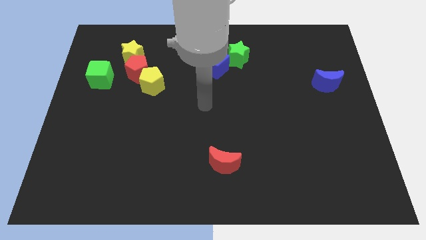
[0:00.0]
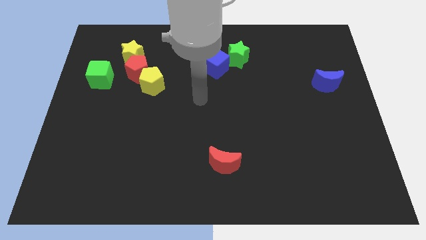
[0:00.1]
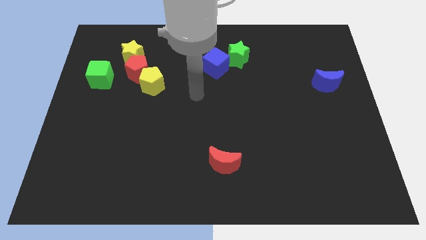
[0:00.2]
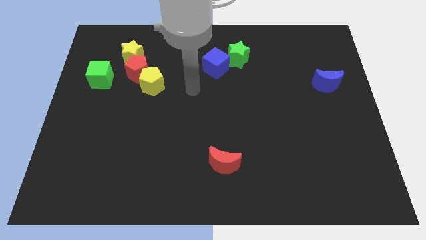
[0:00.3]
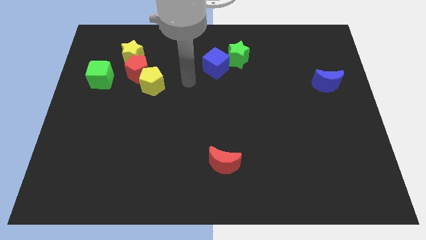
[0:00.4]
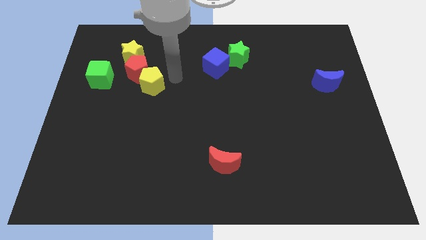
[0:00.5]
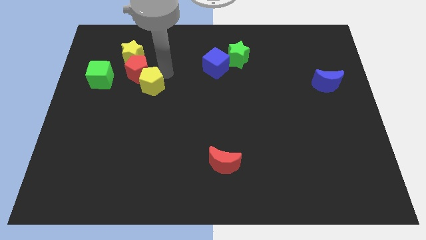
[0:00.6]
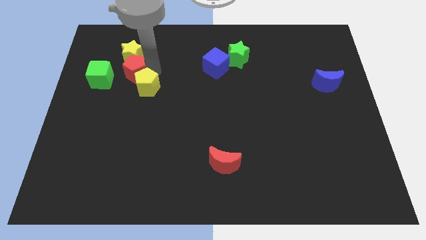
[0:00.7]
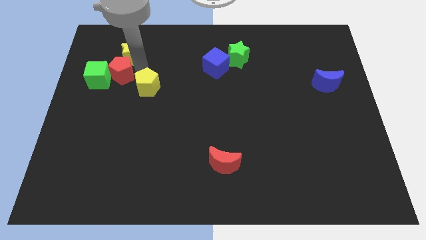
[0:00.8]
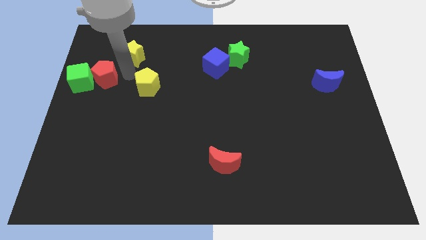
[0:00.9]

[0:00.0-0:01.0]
move the yellow pentagon away from the red pentagon

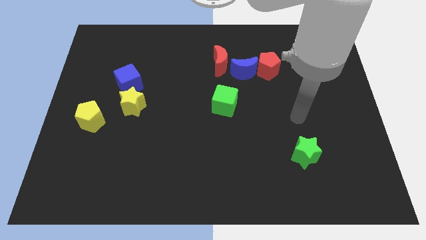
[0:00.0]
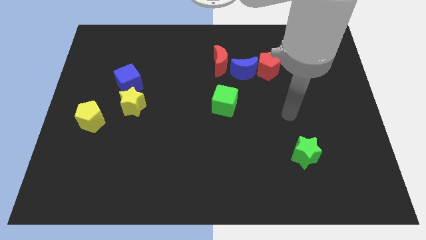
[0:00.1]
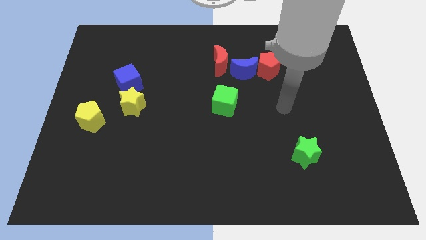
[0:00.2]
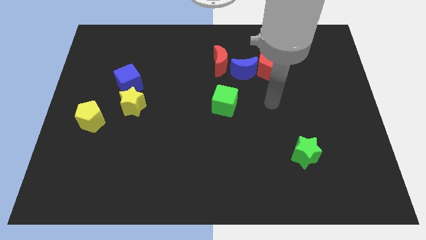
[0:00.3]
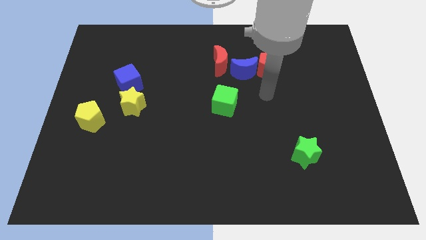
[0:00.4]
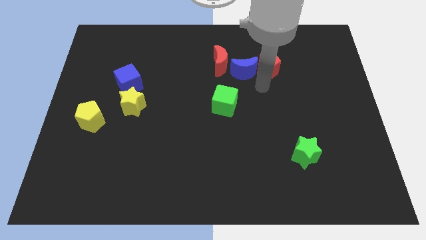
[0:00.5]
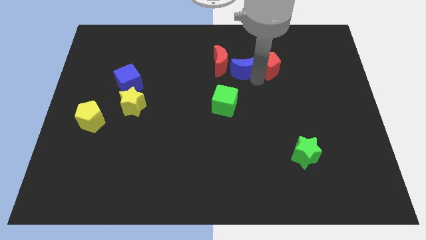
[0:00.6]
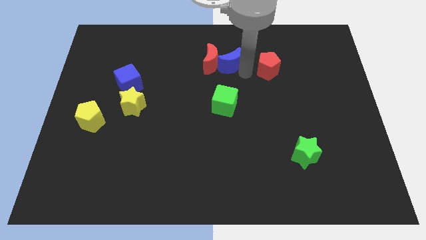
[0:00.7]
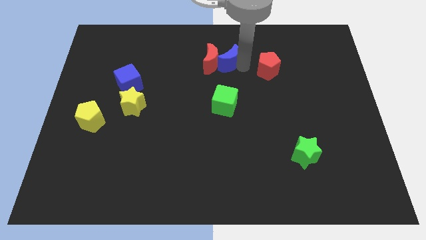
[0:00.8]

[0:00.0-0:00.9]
pull the red pentagon apart from the blue moon

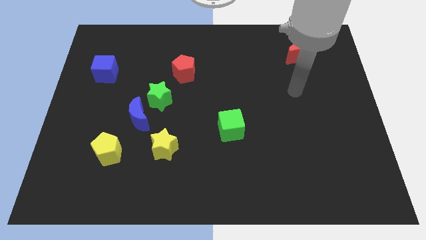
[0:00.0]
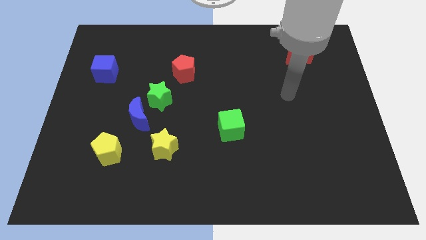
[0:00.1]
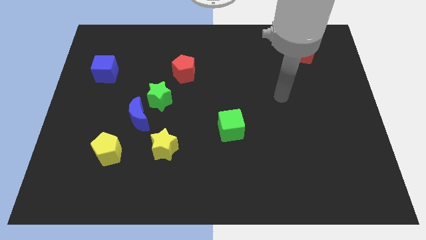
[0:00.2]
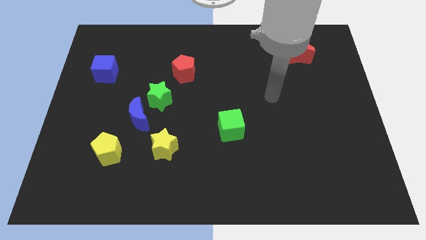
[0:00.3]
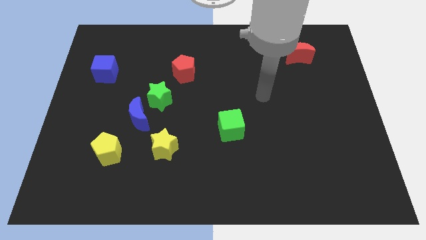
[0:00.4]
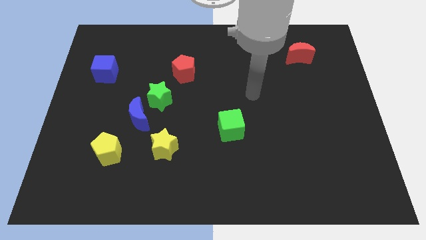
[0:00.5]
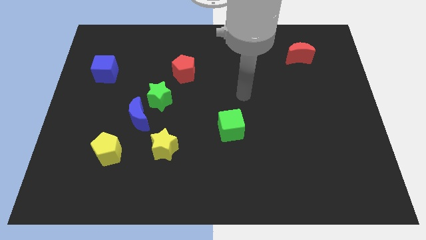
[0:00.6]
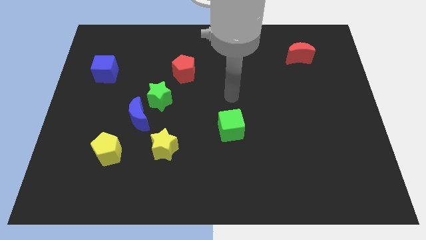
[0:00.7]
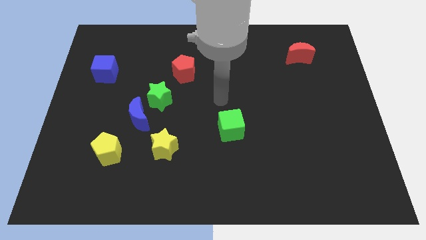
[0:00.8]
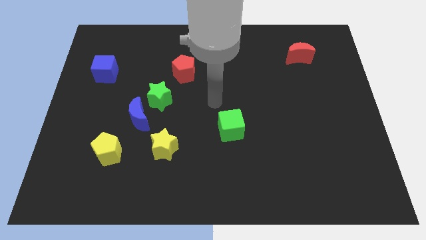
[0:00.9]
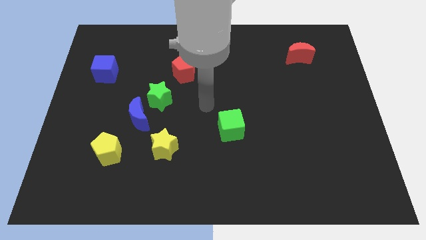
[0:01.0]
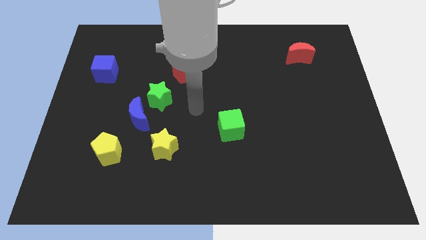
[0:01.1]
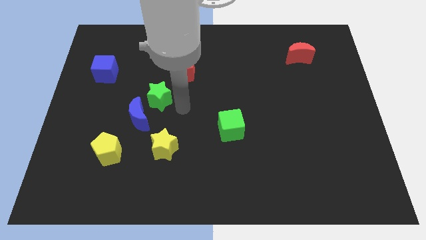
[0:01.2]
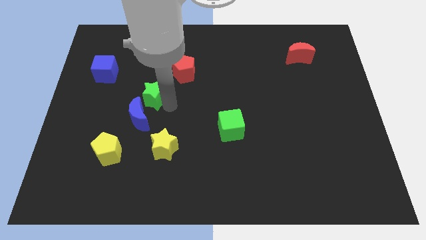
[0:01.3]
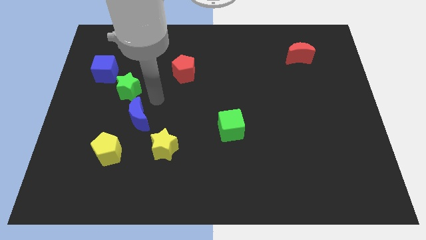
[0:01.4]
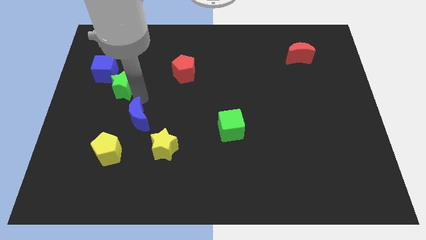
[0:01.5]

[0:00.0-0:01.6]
separate the blue moon from the green star

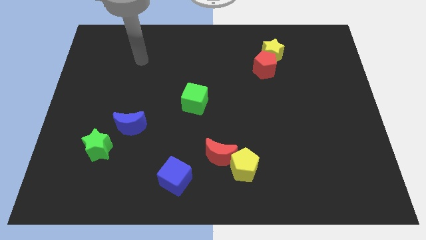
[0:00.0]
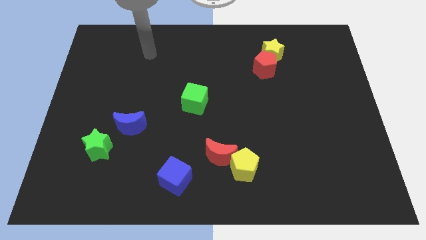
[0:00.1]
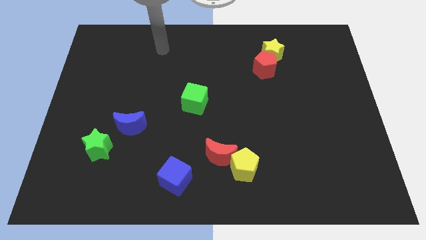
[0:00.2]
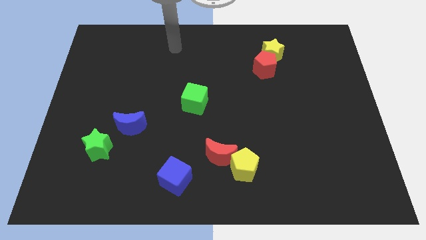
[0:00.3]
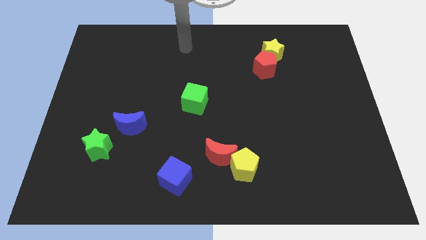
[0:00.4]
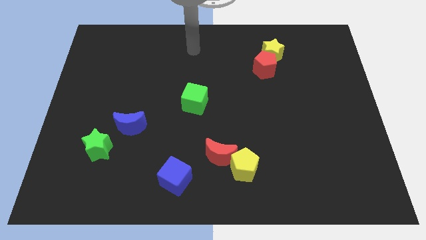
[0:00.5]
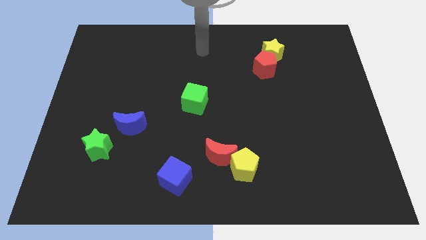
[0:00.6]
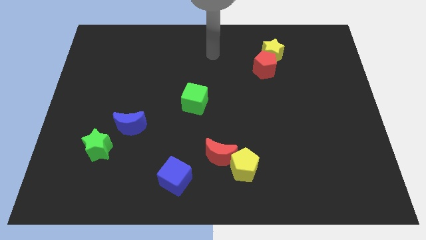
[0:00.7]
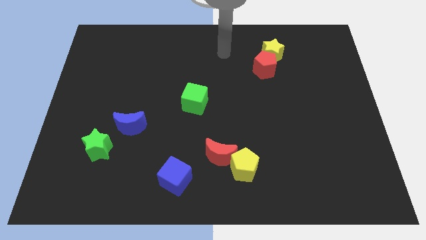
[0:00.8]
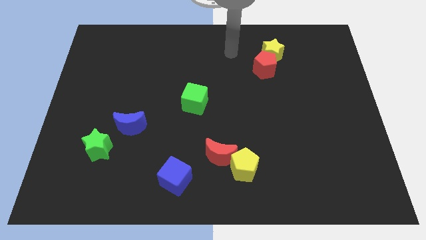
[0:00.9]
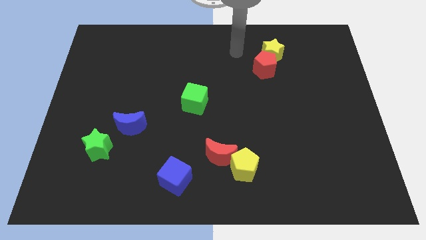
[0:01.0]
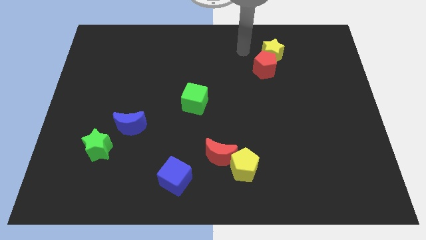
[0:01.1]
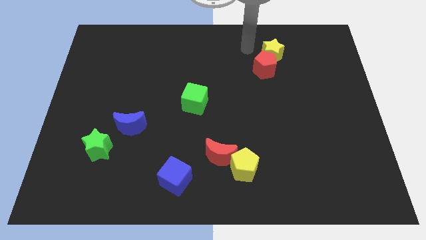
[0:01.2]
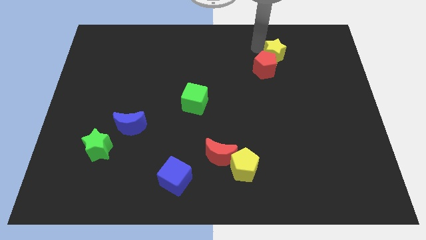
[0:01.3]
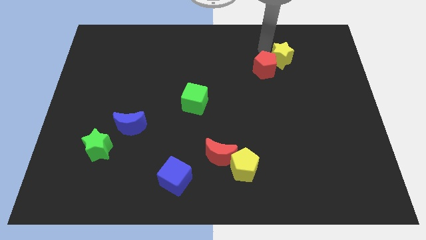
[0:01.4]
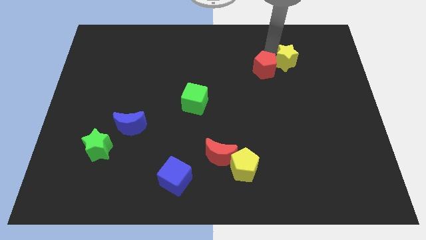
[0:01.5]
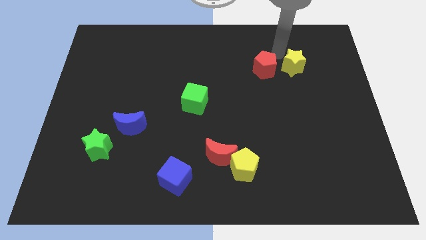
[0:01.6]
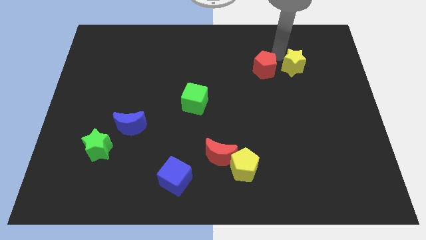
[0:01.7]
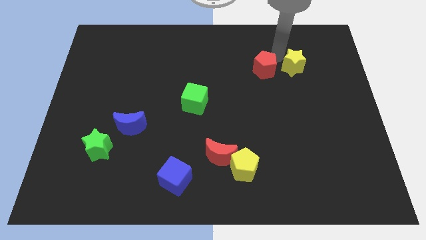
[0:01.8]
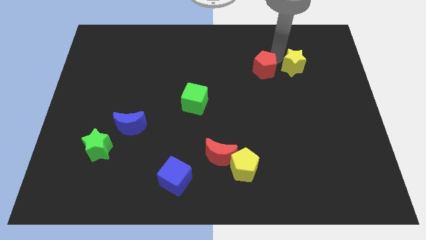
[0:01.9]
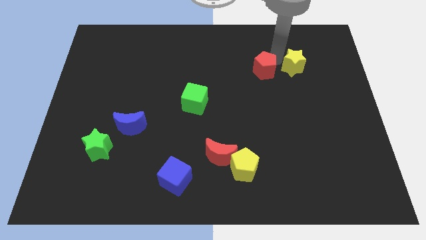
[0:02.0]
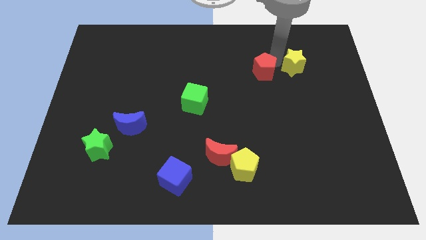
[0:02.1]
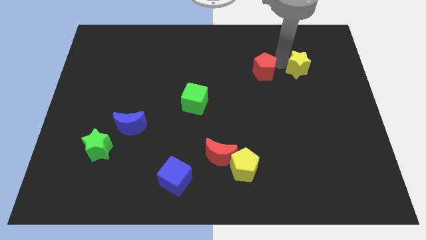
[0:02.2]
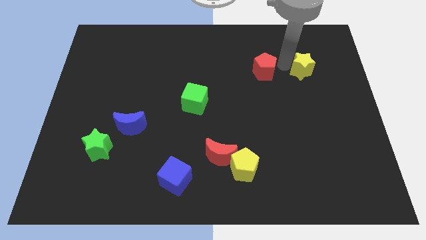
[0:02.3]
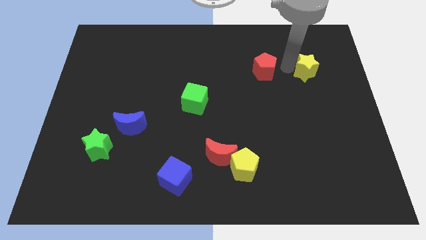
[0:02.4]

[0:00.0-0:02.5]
pull the red pentagon apart from the yellow star

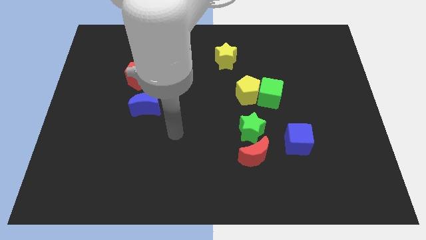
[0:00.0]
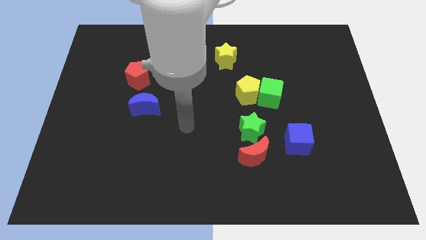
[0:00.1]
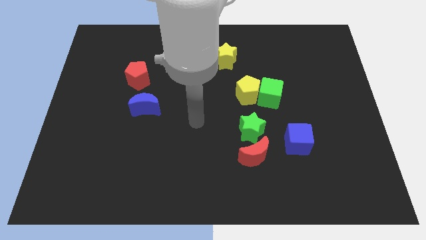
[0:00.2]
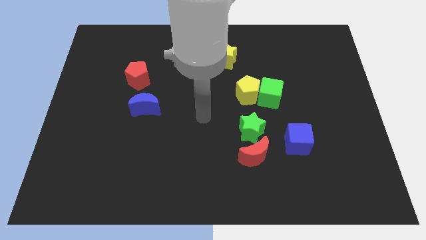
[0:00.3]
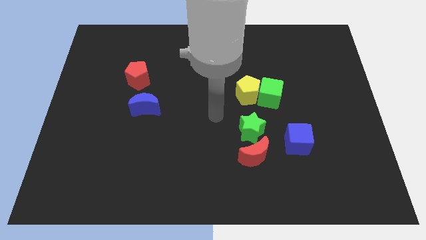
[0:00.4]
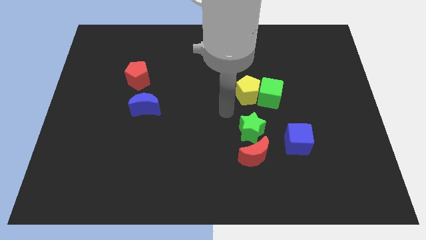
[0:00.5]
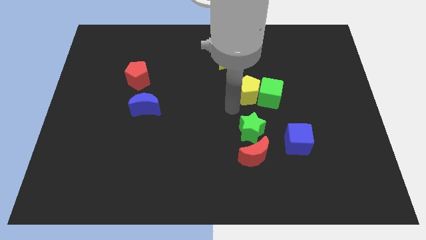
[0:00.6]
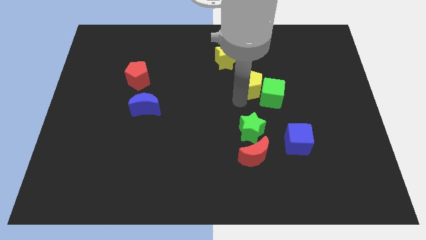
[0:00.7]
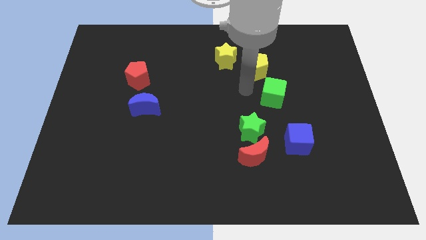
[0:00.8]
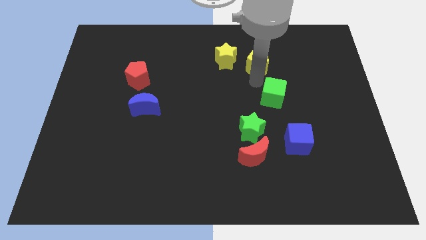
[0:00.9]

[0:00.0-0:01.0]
move the green cube away from the yellow pentagon

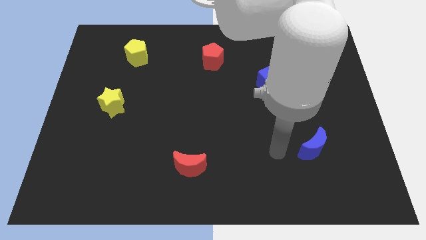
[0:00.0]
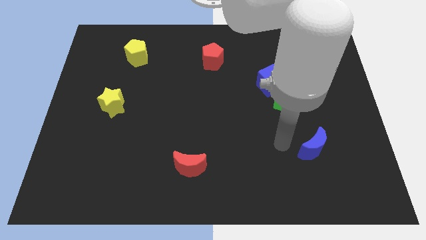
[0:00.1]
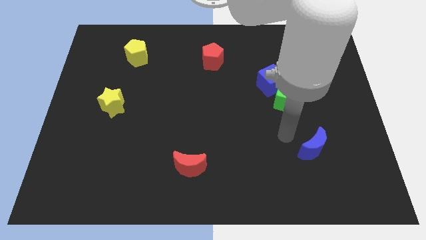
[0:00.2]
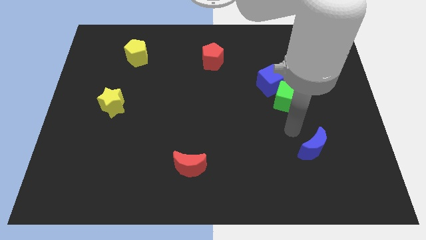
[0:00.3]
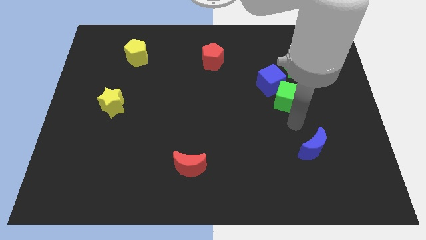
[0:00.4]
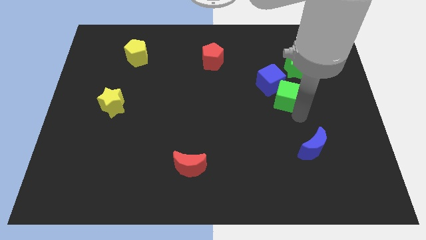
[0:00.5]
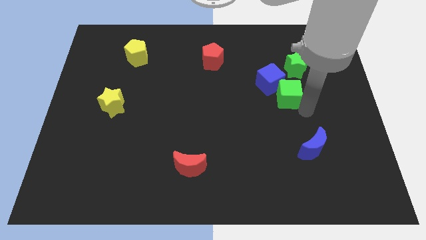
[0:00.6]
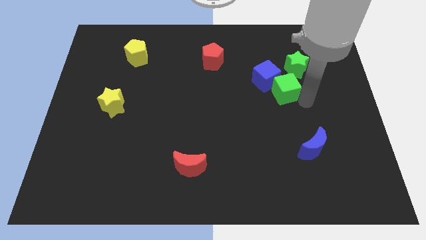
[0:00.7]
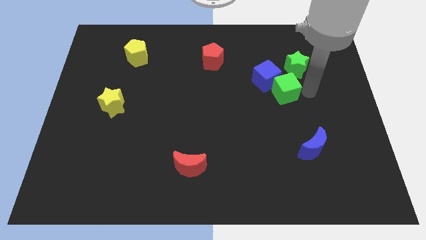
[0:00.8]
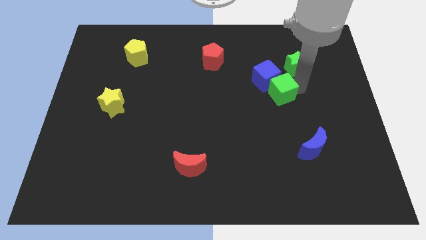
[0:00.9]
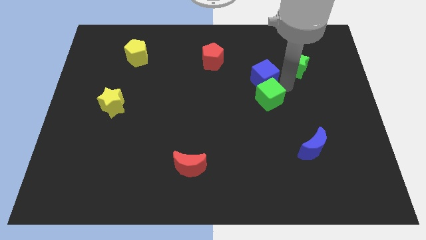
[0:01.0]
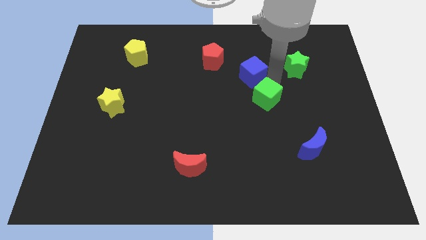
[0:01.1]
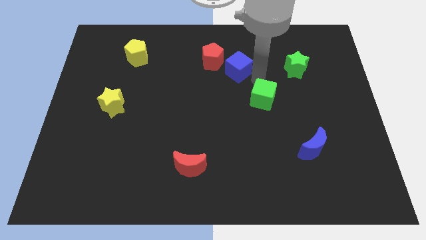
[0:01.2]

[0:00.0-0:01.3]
move the green cube away from the blue cube

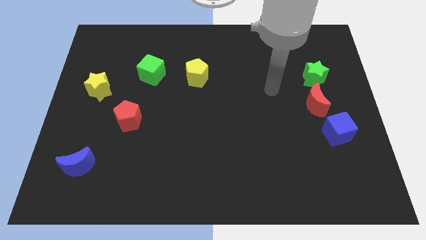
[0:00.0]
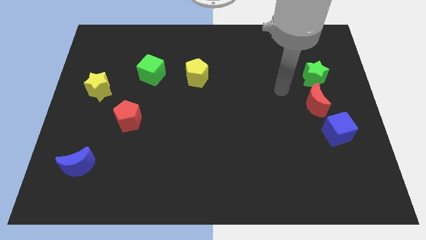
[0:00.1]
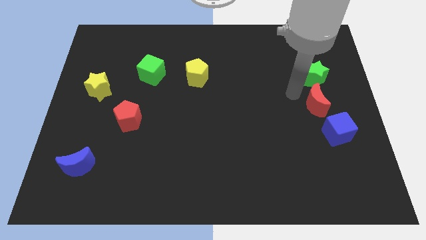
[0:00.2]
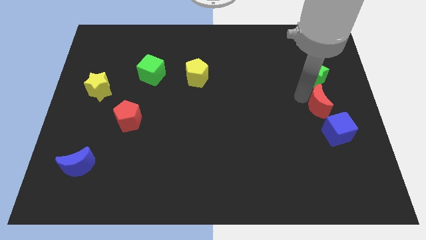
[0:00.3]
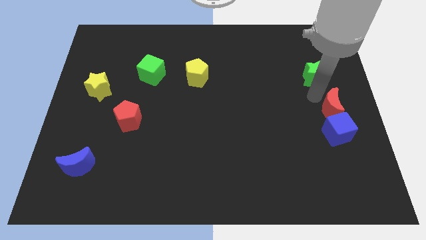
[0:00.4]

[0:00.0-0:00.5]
pull the green star apart from the red moon

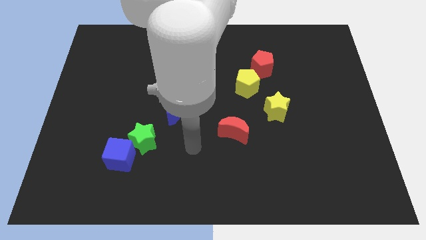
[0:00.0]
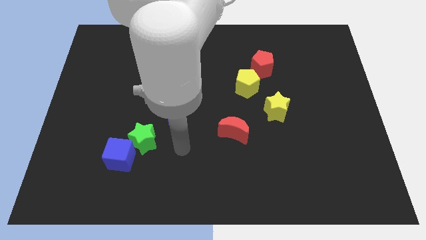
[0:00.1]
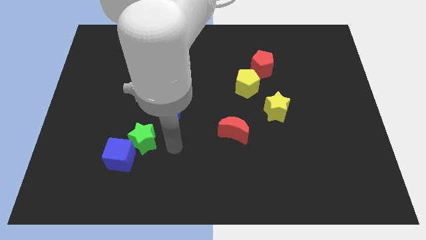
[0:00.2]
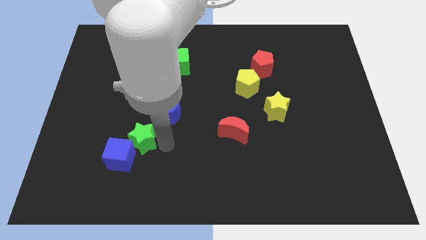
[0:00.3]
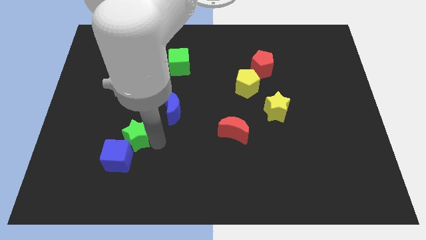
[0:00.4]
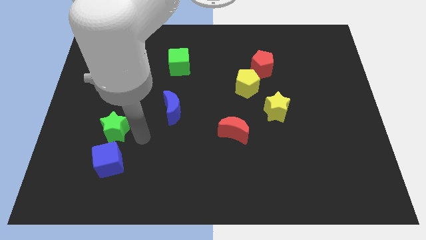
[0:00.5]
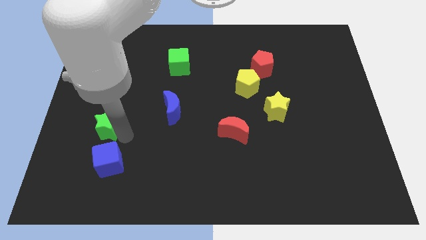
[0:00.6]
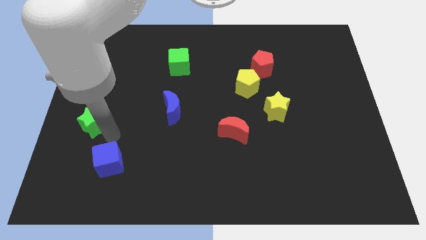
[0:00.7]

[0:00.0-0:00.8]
separate the blue cube from the green star
